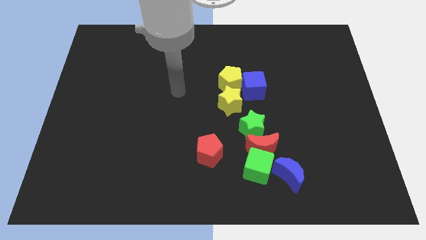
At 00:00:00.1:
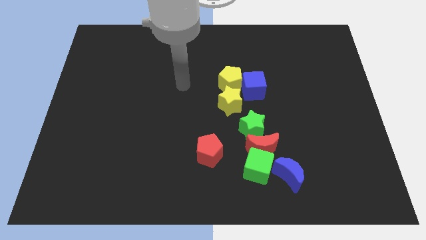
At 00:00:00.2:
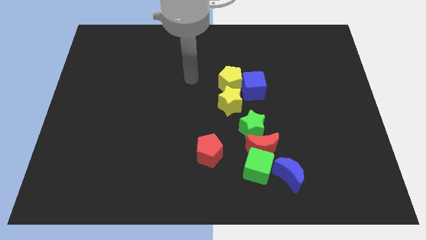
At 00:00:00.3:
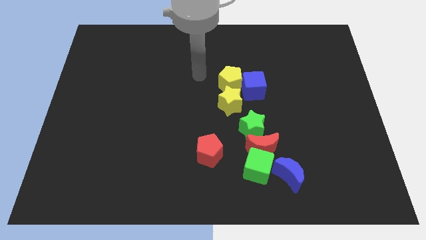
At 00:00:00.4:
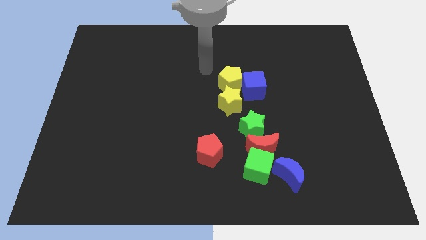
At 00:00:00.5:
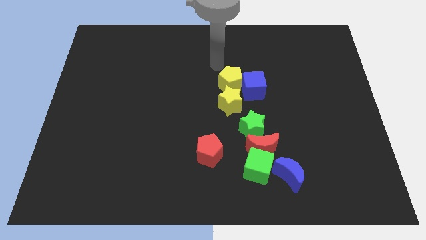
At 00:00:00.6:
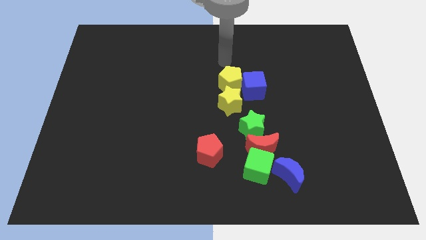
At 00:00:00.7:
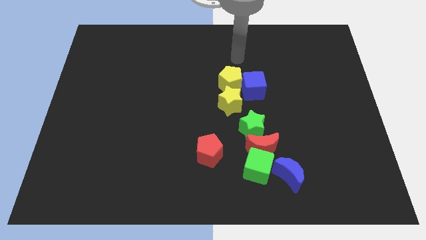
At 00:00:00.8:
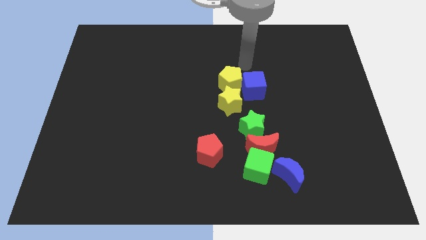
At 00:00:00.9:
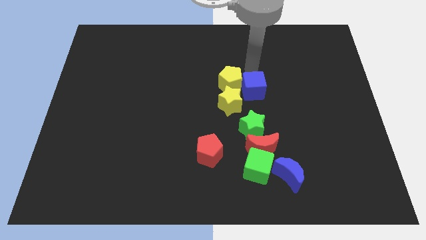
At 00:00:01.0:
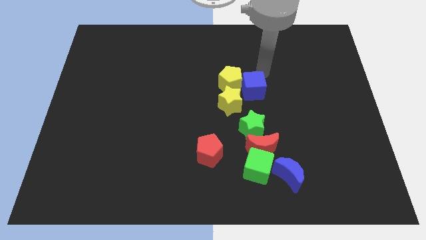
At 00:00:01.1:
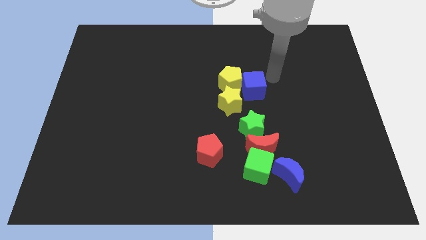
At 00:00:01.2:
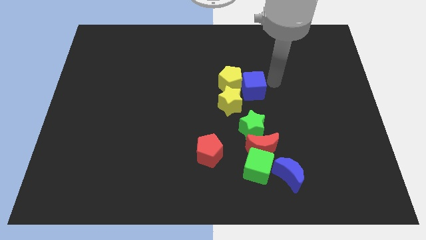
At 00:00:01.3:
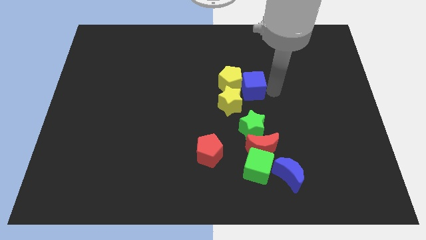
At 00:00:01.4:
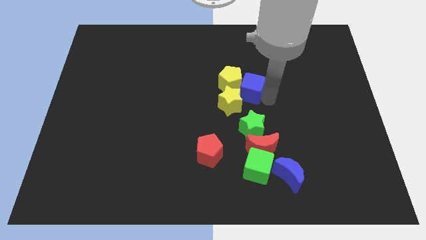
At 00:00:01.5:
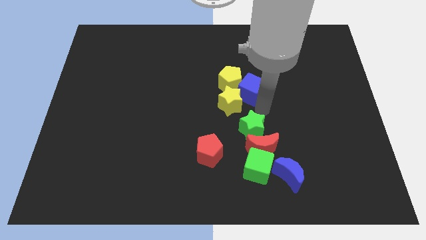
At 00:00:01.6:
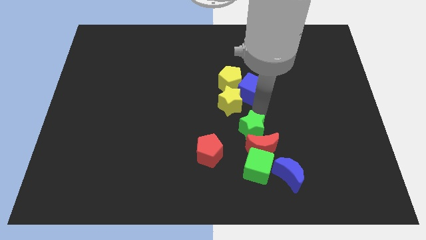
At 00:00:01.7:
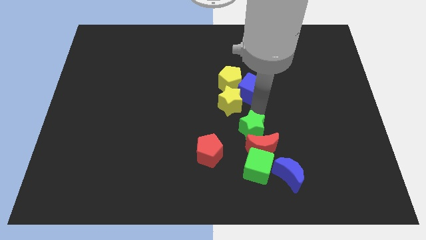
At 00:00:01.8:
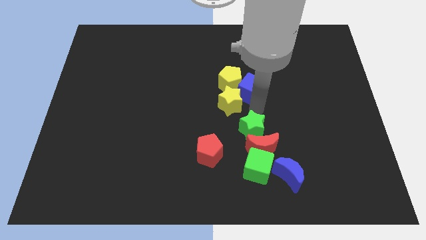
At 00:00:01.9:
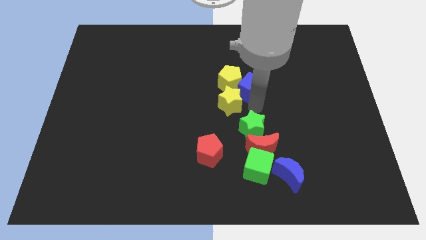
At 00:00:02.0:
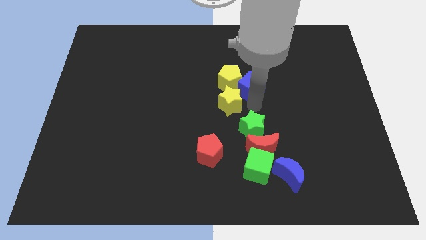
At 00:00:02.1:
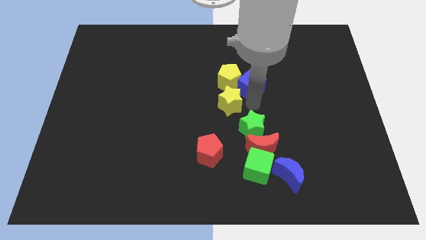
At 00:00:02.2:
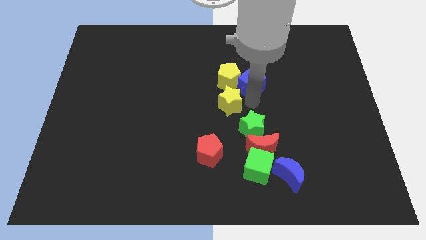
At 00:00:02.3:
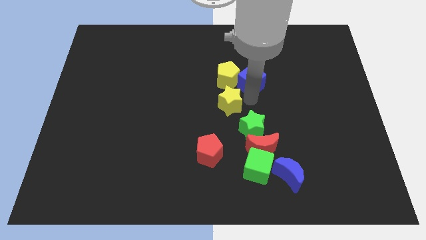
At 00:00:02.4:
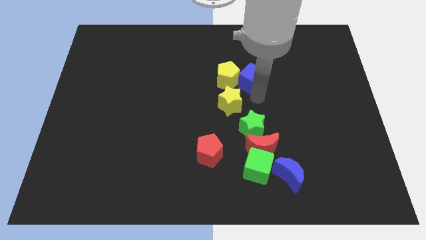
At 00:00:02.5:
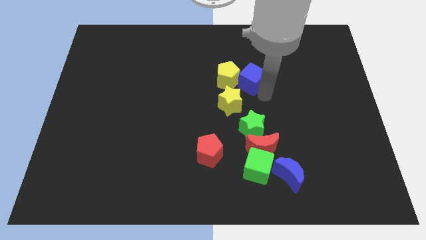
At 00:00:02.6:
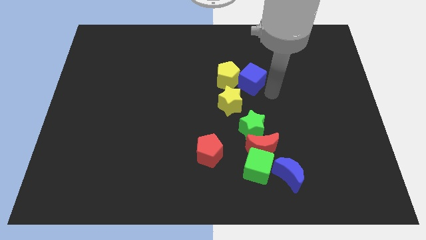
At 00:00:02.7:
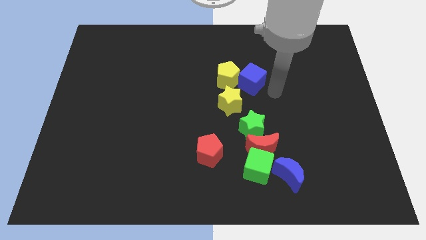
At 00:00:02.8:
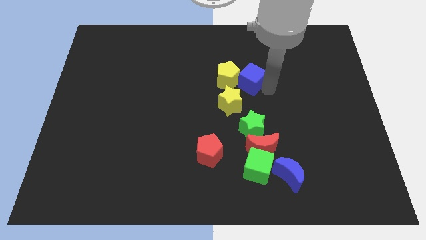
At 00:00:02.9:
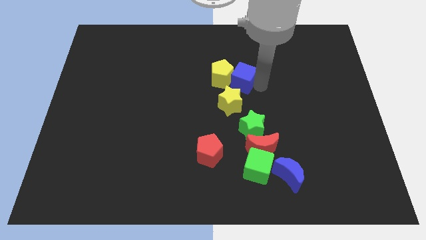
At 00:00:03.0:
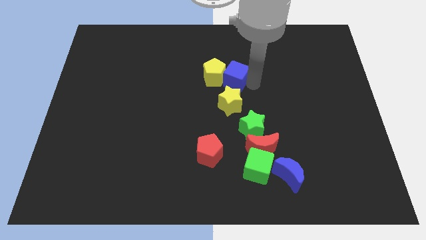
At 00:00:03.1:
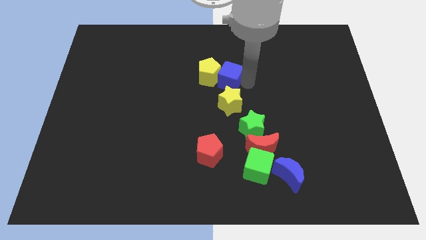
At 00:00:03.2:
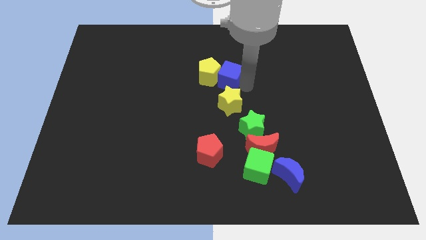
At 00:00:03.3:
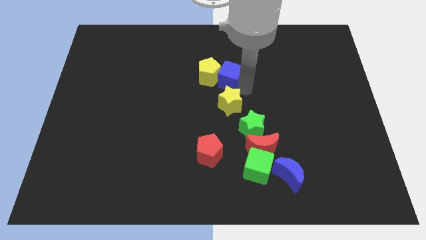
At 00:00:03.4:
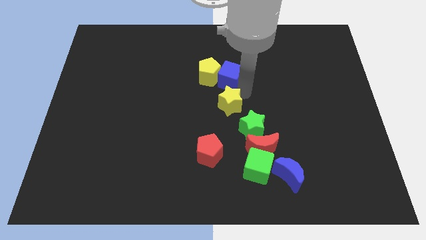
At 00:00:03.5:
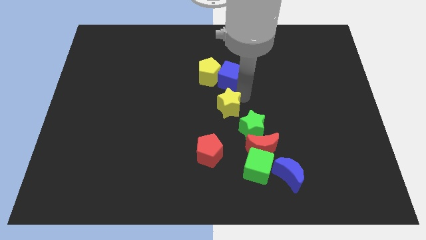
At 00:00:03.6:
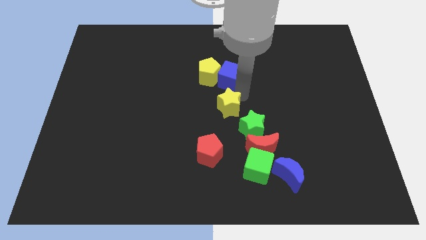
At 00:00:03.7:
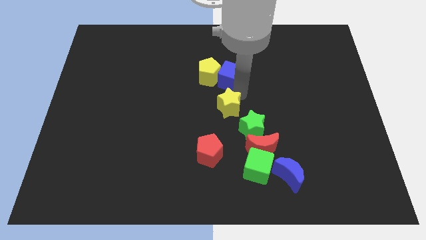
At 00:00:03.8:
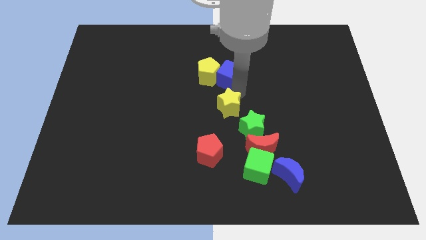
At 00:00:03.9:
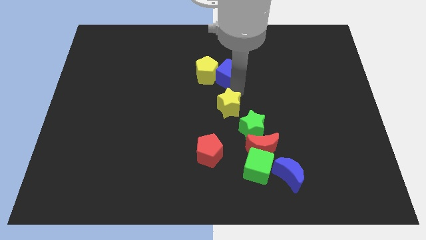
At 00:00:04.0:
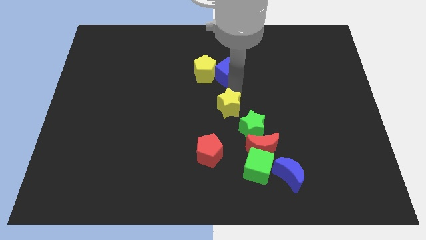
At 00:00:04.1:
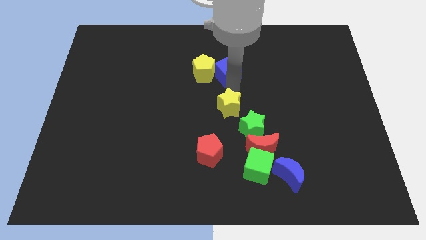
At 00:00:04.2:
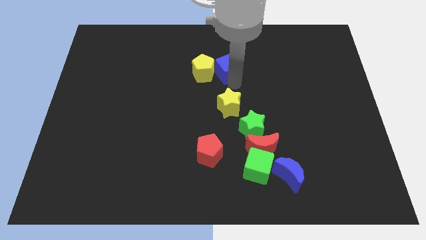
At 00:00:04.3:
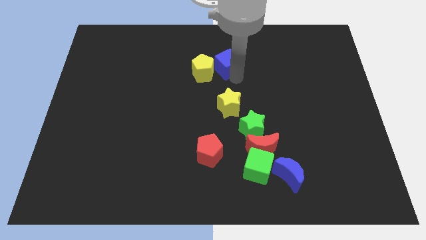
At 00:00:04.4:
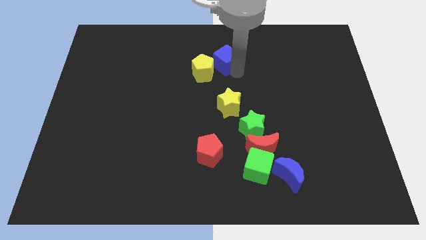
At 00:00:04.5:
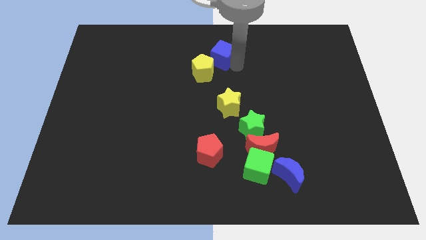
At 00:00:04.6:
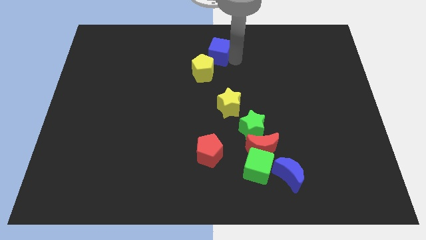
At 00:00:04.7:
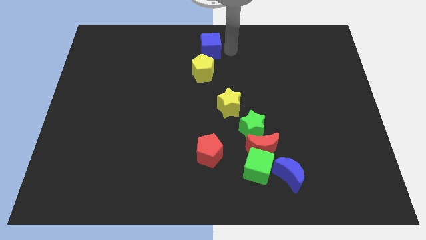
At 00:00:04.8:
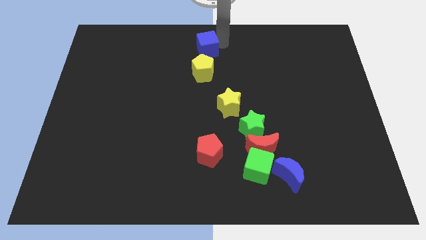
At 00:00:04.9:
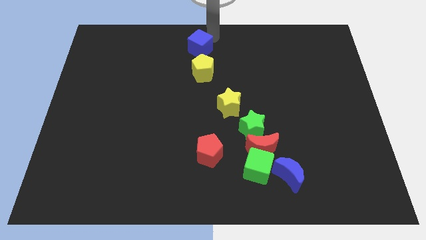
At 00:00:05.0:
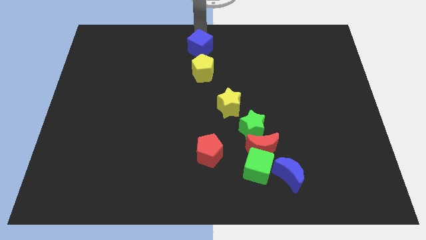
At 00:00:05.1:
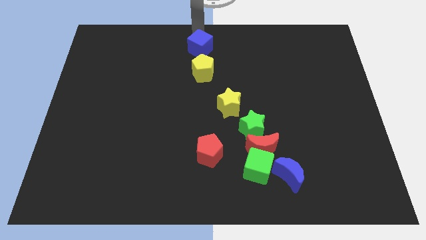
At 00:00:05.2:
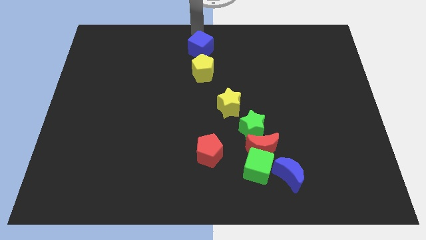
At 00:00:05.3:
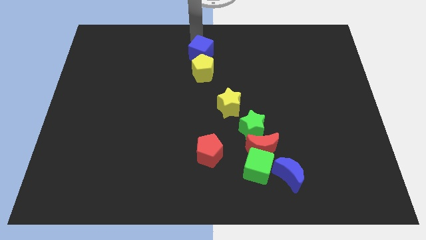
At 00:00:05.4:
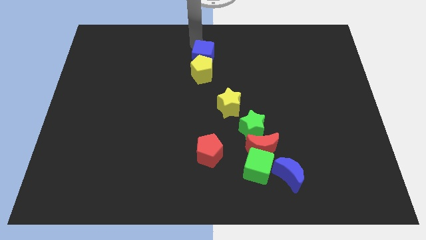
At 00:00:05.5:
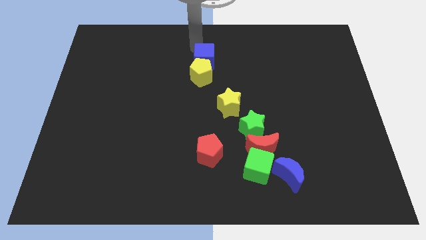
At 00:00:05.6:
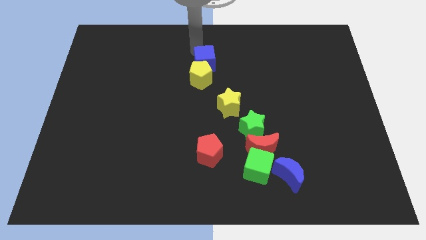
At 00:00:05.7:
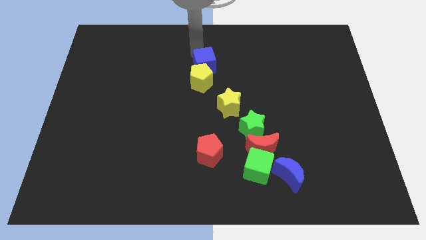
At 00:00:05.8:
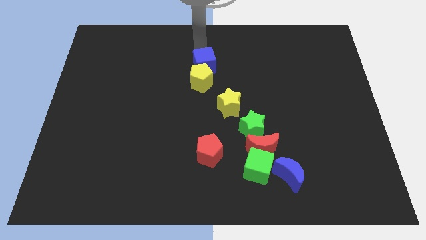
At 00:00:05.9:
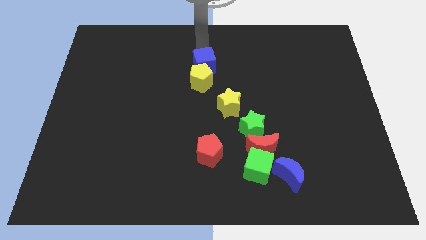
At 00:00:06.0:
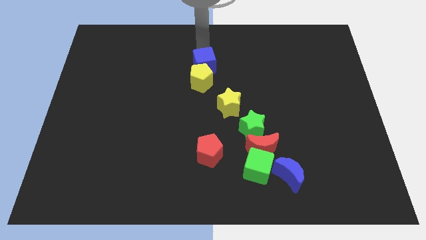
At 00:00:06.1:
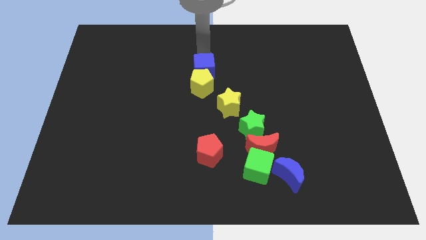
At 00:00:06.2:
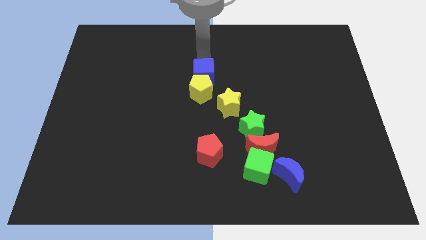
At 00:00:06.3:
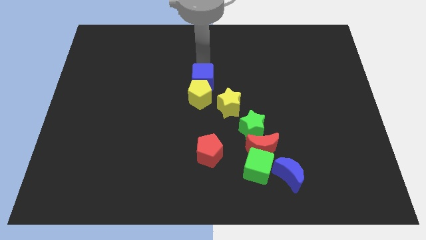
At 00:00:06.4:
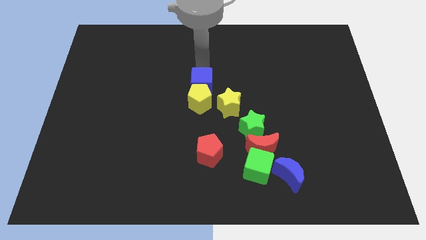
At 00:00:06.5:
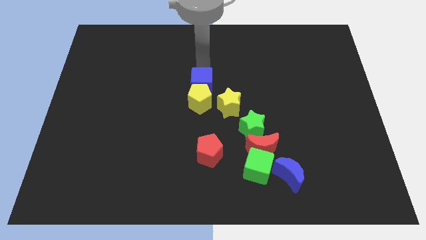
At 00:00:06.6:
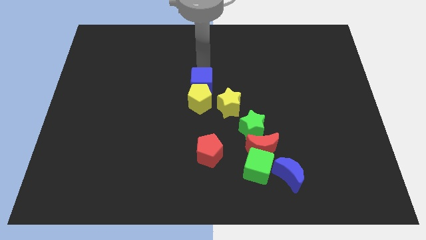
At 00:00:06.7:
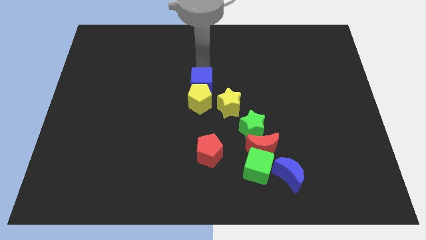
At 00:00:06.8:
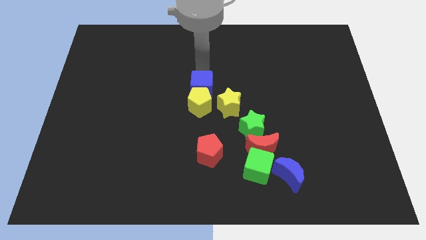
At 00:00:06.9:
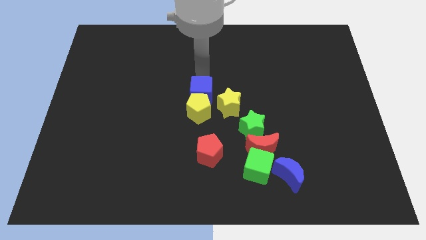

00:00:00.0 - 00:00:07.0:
move the blue cube down and to the left slightly

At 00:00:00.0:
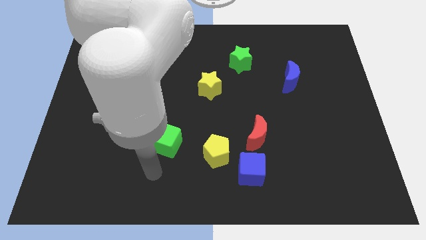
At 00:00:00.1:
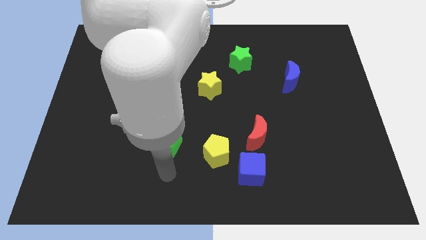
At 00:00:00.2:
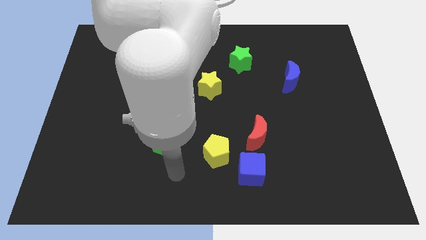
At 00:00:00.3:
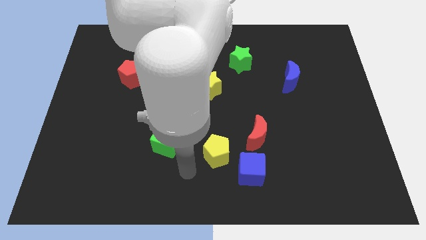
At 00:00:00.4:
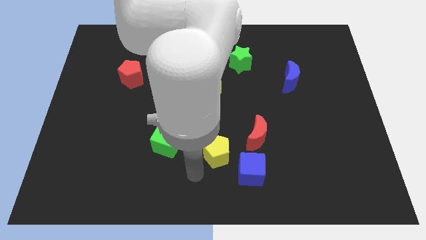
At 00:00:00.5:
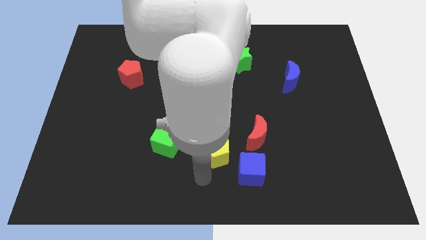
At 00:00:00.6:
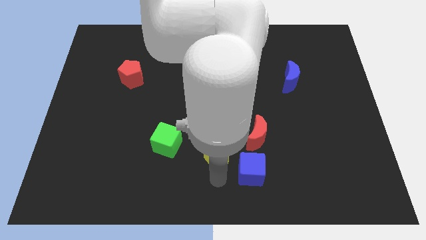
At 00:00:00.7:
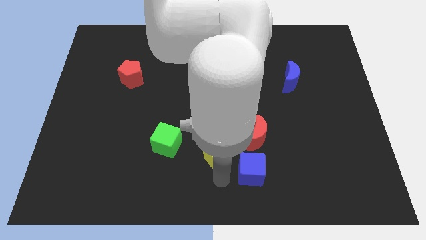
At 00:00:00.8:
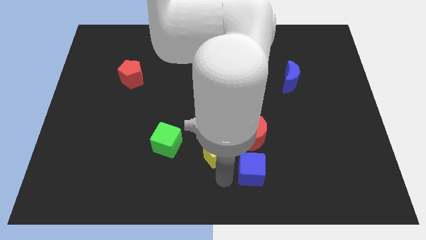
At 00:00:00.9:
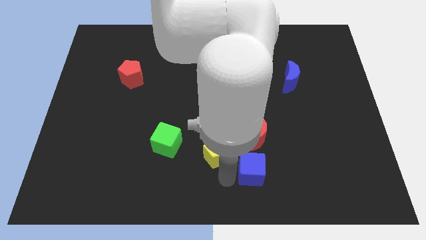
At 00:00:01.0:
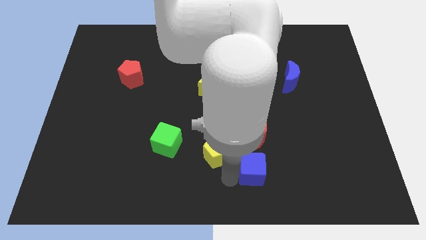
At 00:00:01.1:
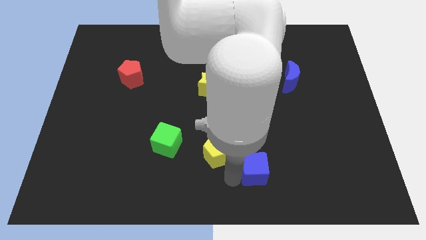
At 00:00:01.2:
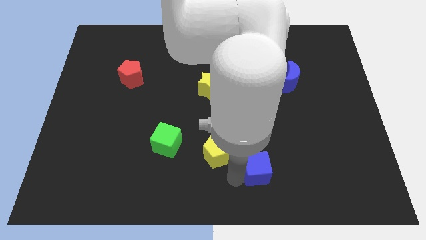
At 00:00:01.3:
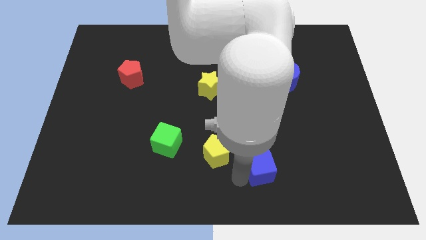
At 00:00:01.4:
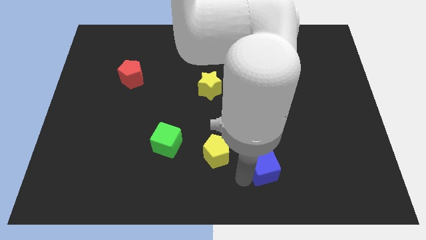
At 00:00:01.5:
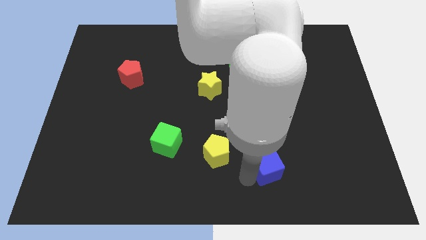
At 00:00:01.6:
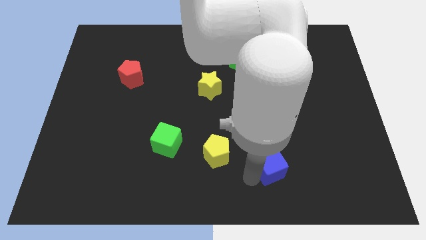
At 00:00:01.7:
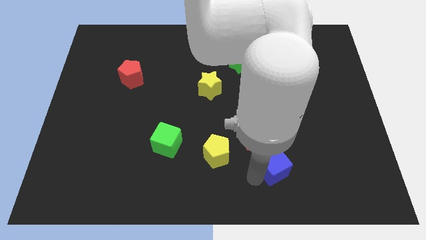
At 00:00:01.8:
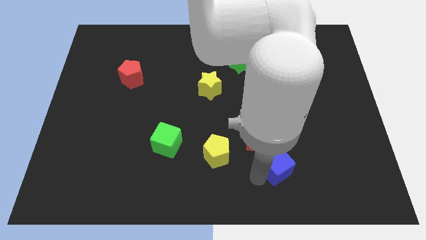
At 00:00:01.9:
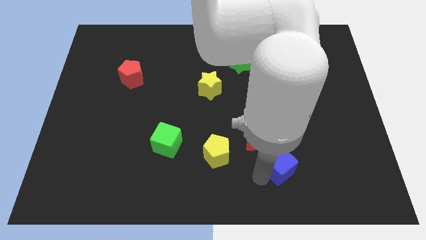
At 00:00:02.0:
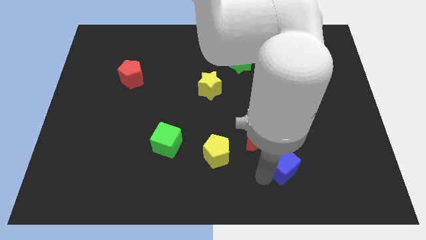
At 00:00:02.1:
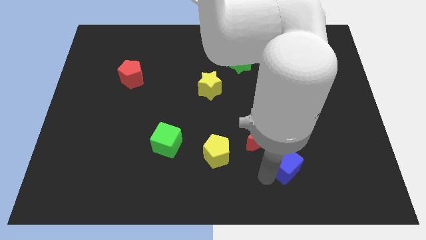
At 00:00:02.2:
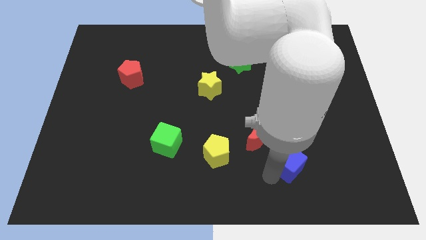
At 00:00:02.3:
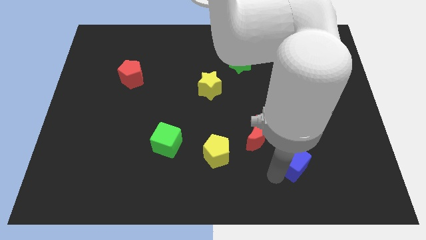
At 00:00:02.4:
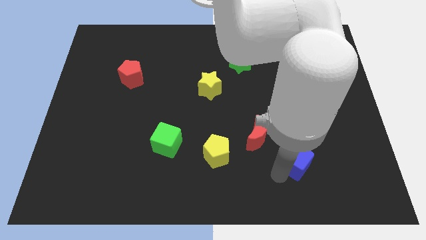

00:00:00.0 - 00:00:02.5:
push the blue cube upwards and then right somewhat
